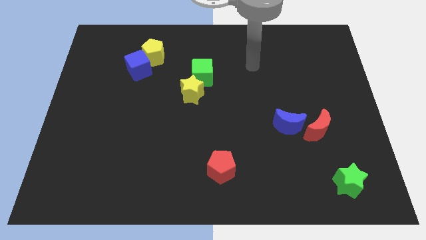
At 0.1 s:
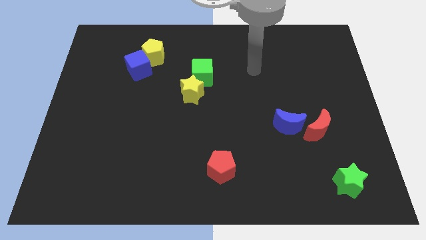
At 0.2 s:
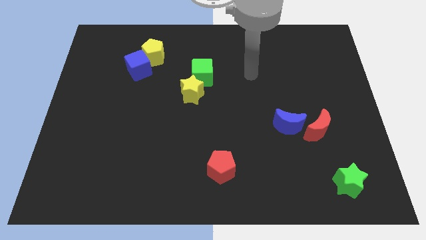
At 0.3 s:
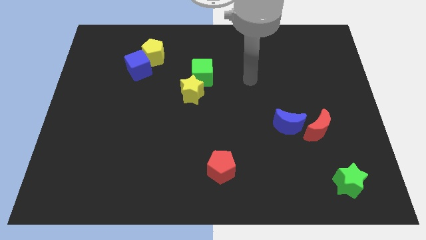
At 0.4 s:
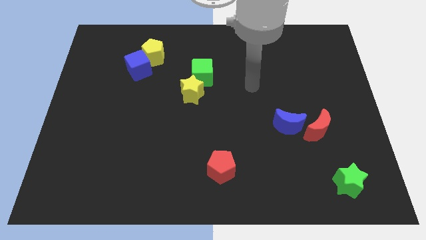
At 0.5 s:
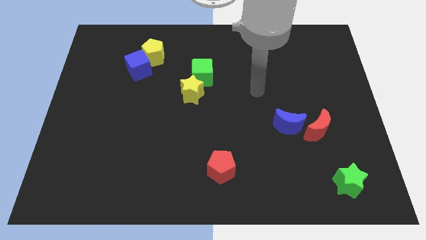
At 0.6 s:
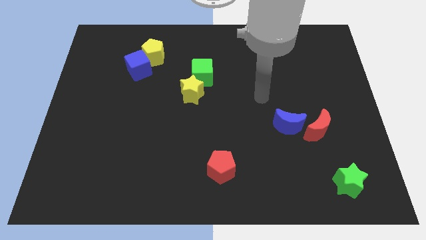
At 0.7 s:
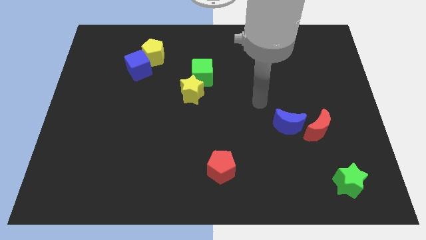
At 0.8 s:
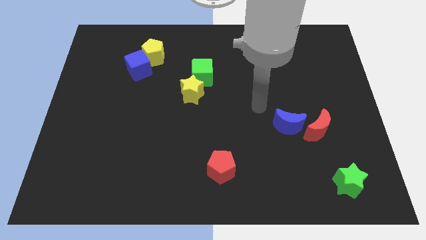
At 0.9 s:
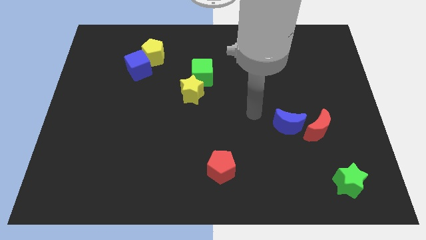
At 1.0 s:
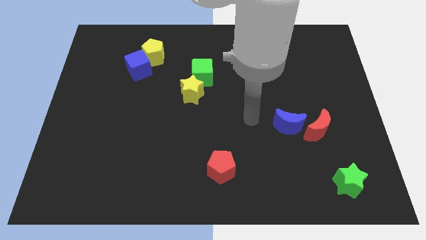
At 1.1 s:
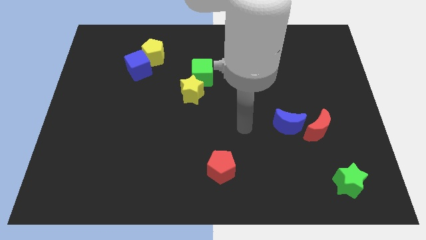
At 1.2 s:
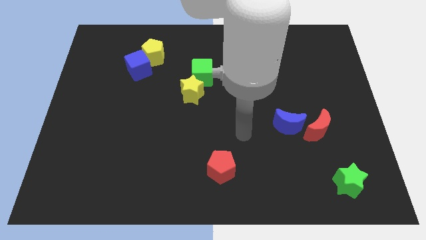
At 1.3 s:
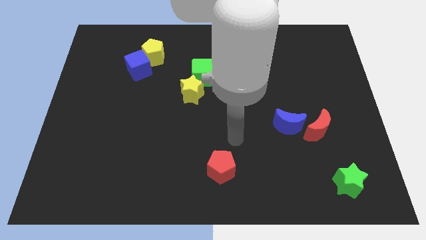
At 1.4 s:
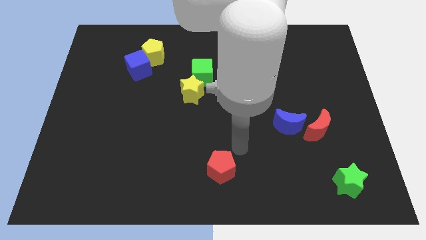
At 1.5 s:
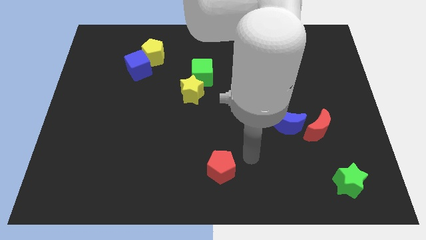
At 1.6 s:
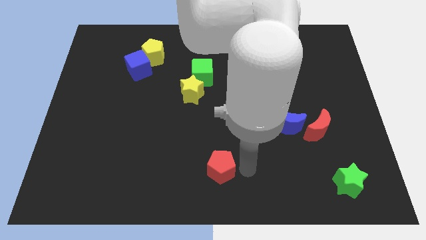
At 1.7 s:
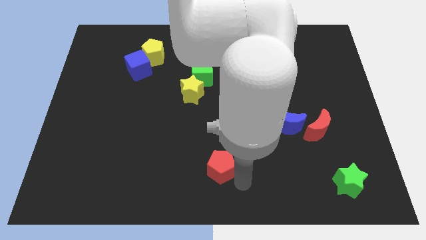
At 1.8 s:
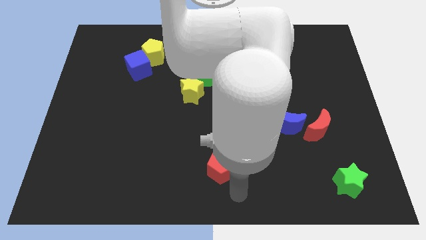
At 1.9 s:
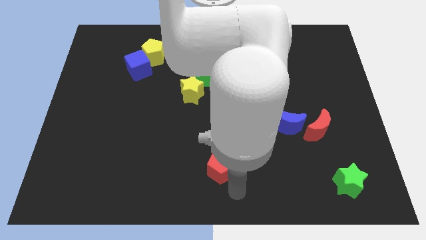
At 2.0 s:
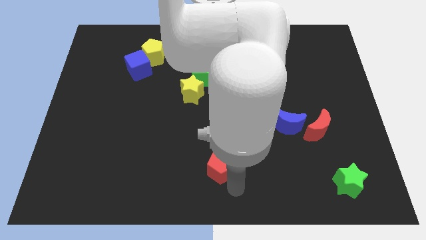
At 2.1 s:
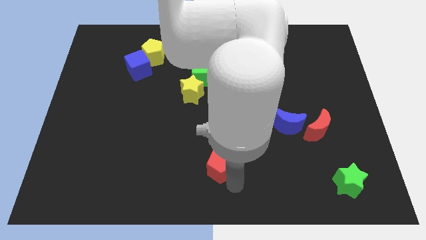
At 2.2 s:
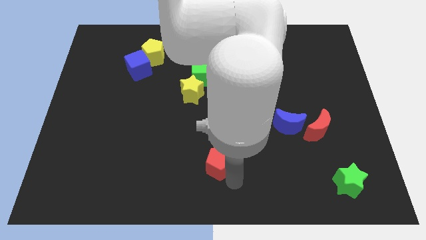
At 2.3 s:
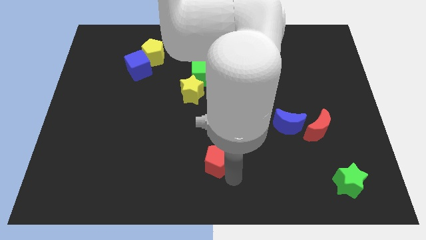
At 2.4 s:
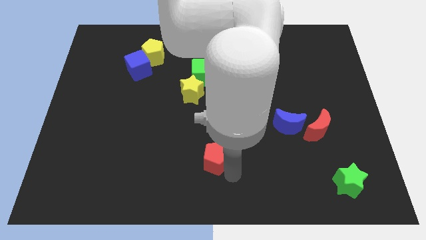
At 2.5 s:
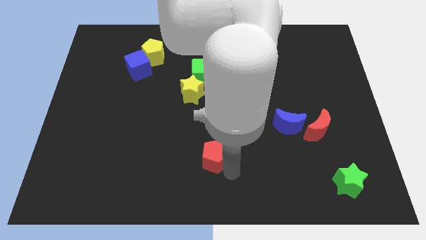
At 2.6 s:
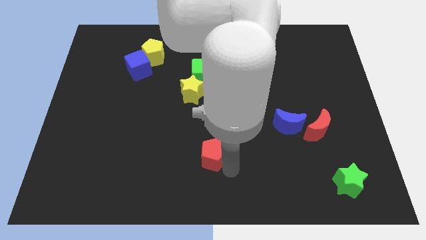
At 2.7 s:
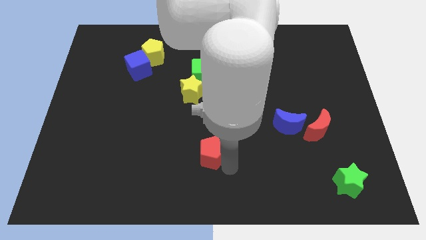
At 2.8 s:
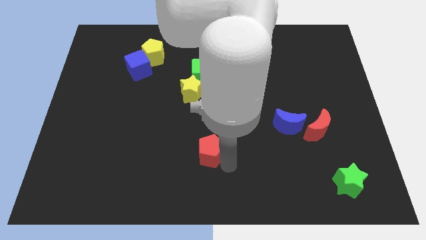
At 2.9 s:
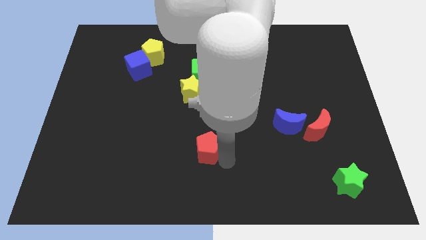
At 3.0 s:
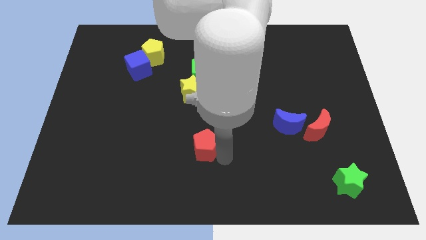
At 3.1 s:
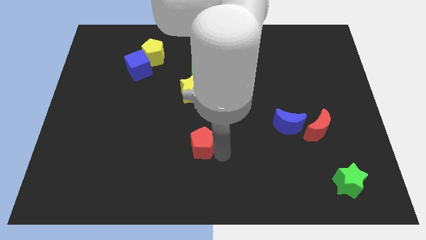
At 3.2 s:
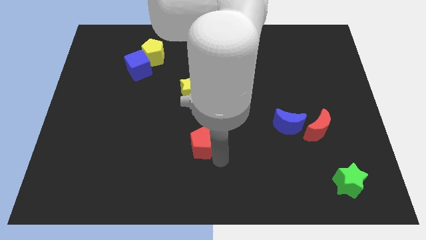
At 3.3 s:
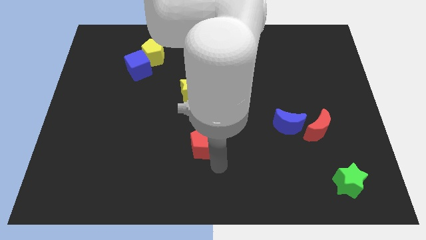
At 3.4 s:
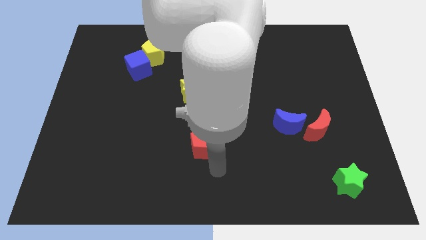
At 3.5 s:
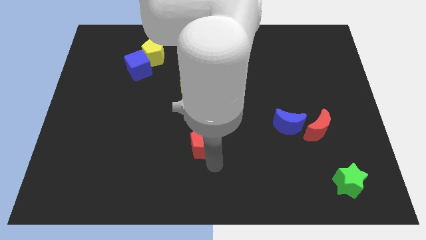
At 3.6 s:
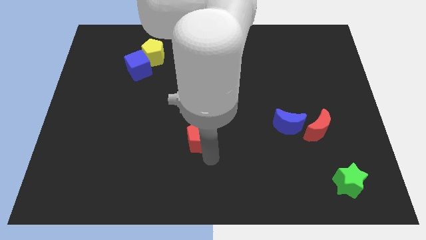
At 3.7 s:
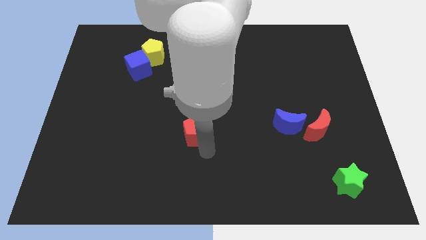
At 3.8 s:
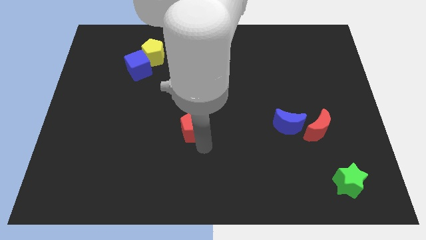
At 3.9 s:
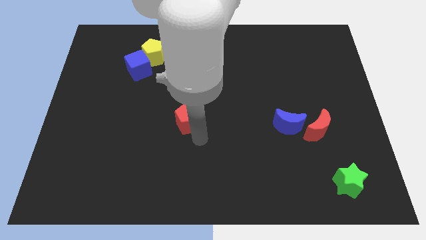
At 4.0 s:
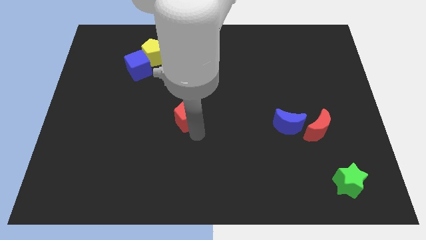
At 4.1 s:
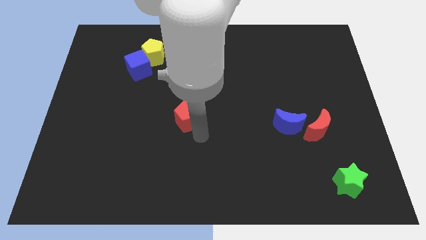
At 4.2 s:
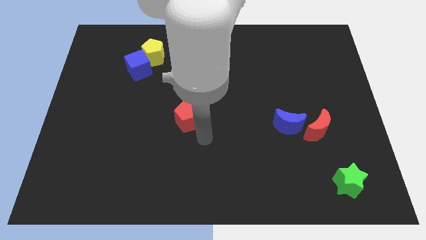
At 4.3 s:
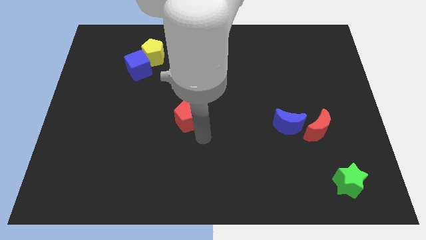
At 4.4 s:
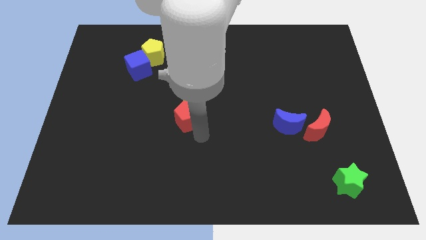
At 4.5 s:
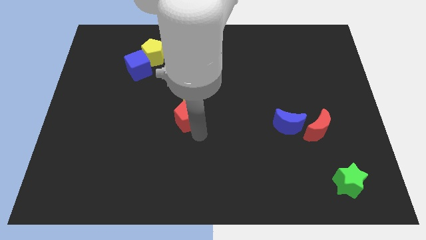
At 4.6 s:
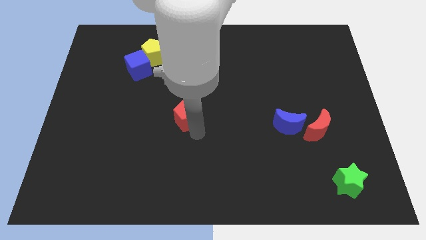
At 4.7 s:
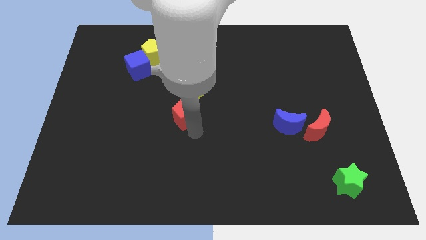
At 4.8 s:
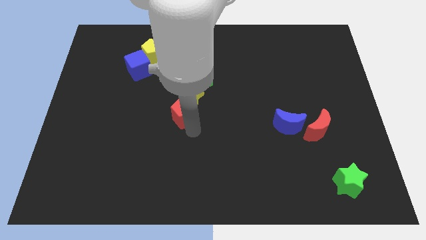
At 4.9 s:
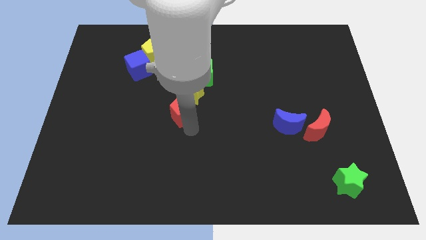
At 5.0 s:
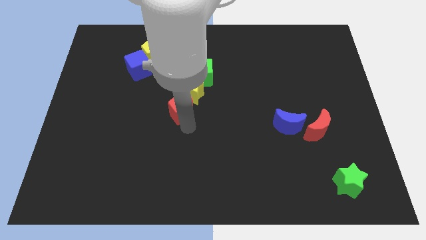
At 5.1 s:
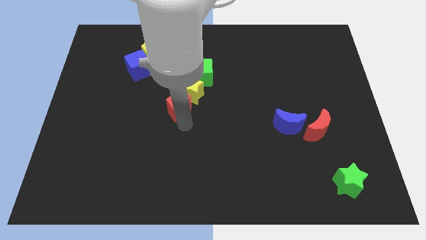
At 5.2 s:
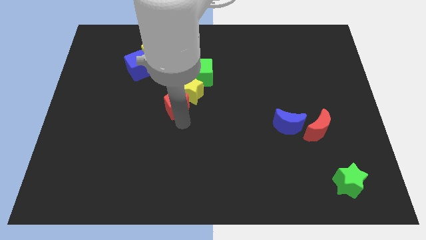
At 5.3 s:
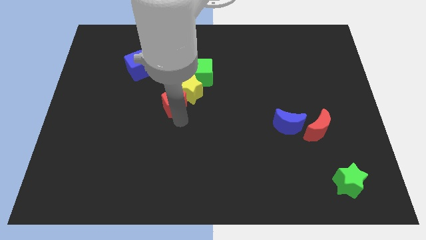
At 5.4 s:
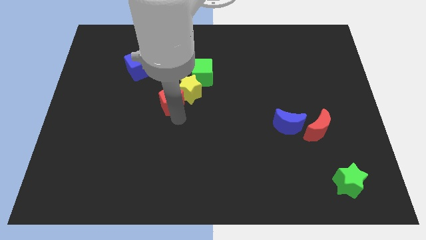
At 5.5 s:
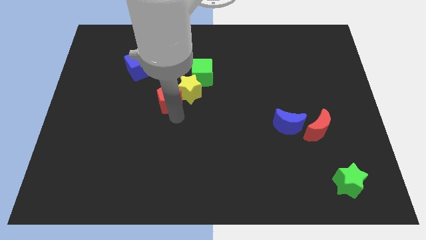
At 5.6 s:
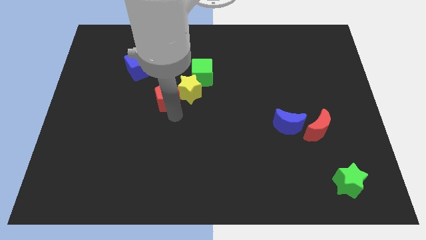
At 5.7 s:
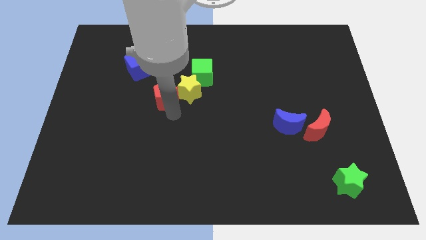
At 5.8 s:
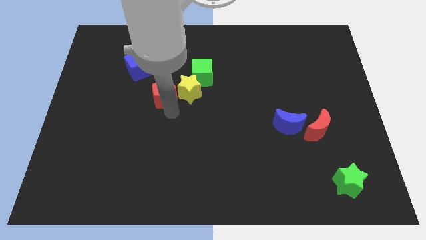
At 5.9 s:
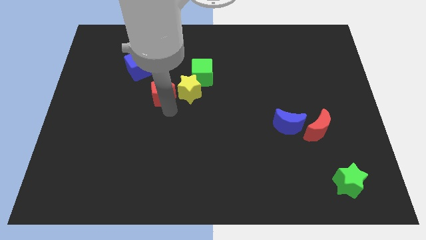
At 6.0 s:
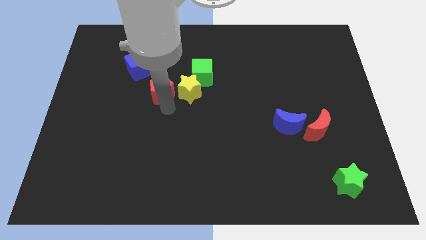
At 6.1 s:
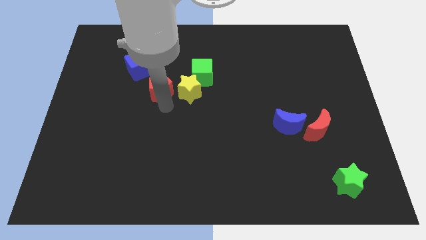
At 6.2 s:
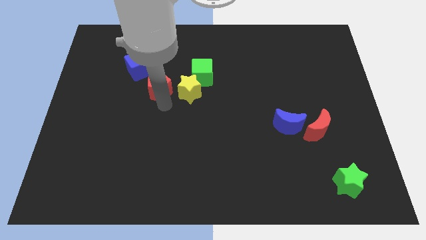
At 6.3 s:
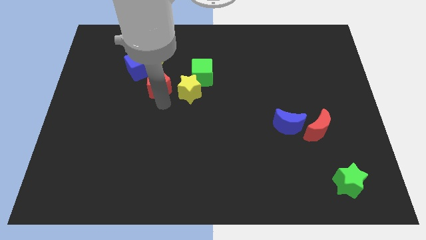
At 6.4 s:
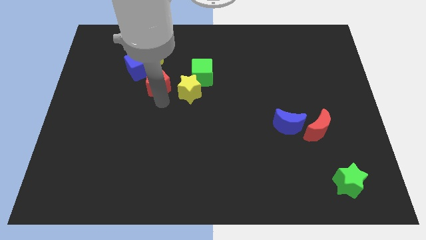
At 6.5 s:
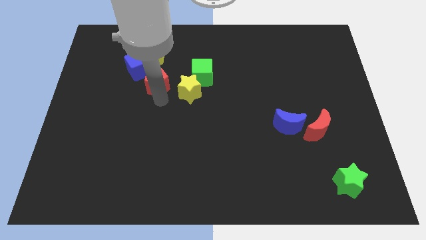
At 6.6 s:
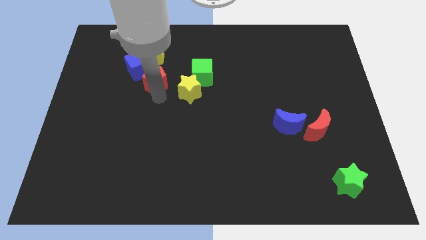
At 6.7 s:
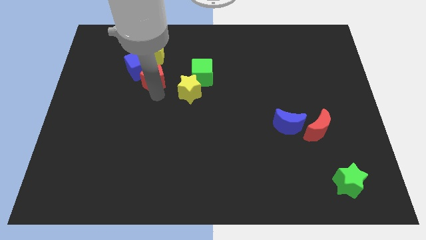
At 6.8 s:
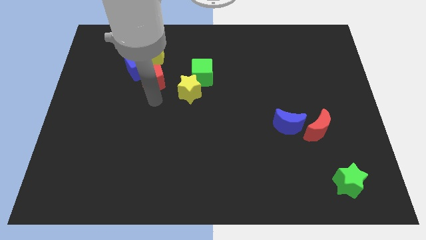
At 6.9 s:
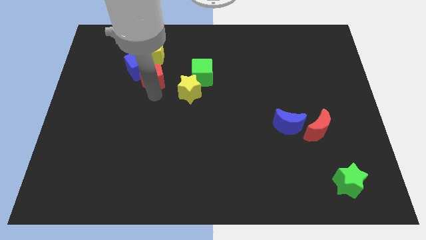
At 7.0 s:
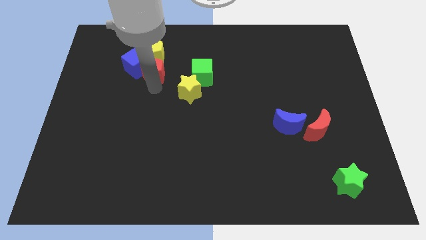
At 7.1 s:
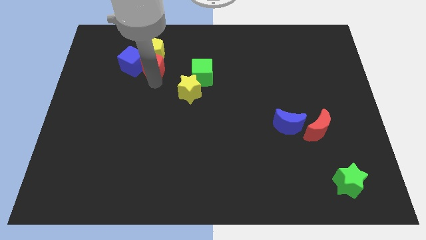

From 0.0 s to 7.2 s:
slide the red pentagon to the yellow pentagon
